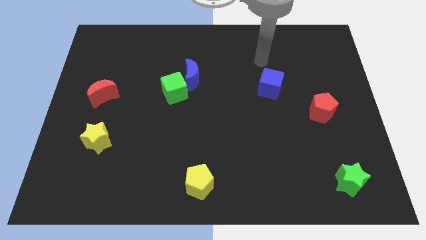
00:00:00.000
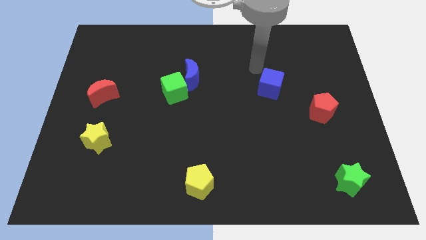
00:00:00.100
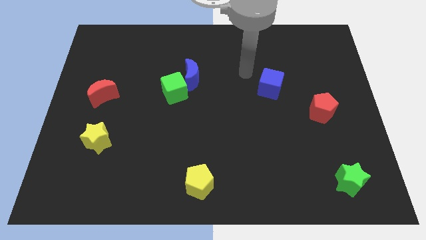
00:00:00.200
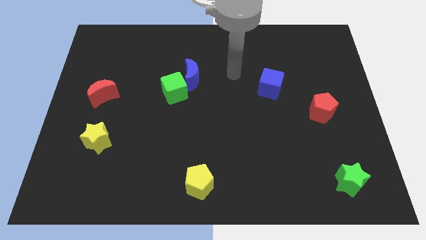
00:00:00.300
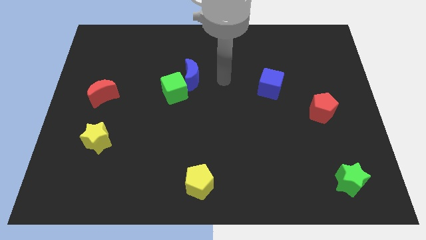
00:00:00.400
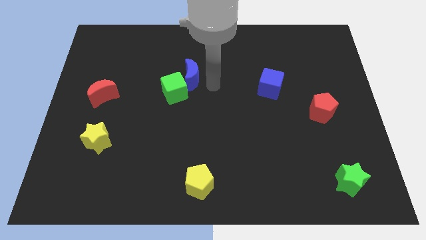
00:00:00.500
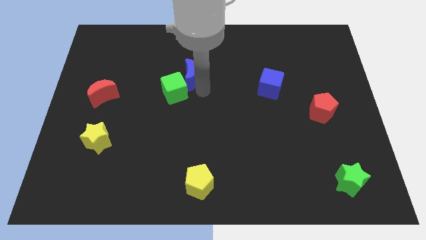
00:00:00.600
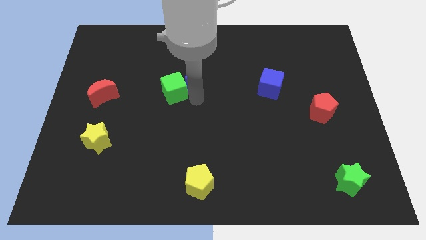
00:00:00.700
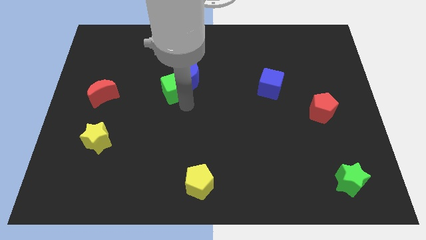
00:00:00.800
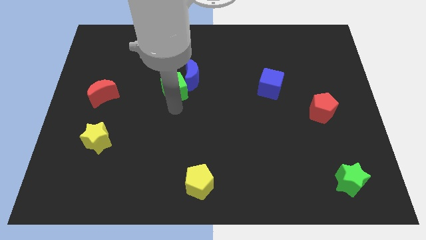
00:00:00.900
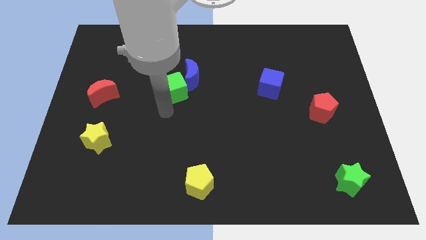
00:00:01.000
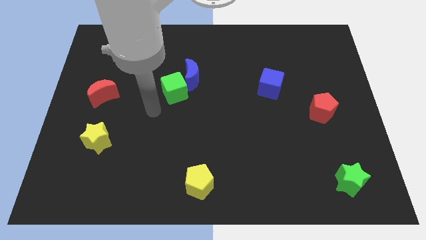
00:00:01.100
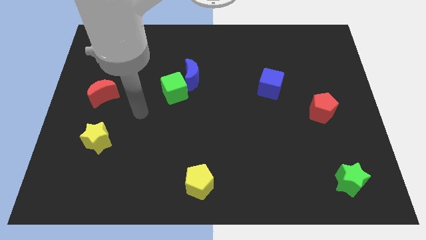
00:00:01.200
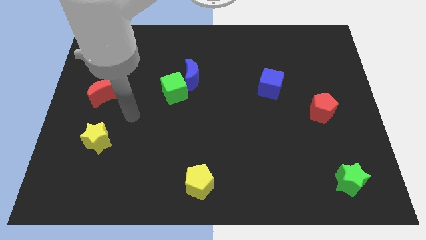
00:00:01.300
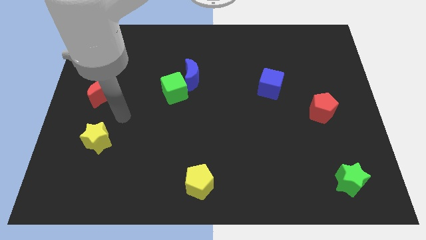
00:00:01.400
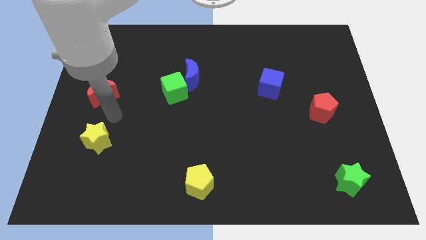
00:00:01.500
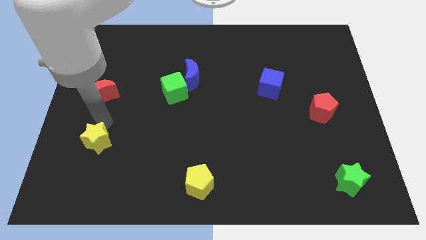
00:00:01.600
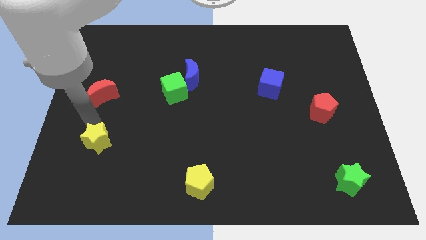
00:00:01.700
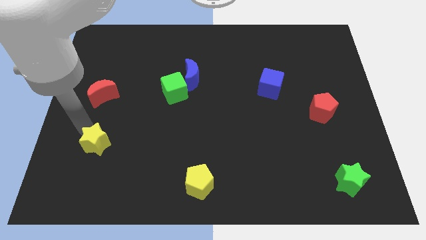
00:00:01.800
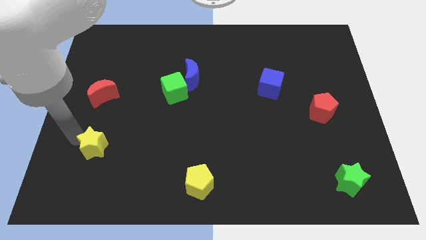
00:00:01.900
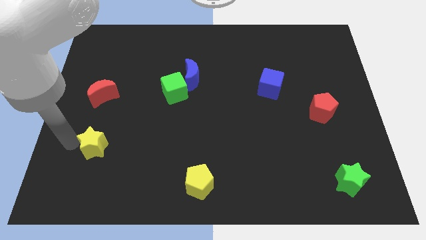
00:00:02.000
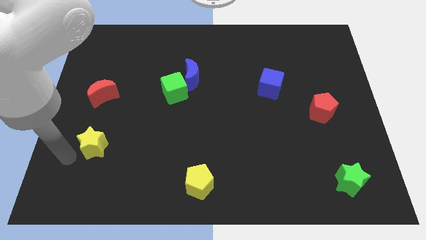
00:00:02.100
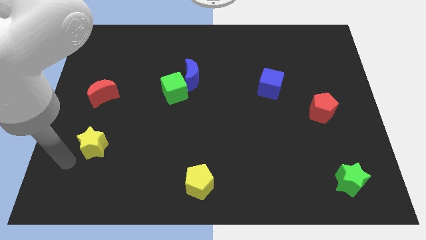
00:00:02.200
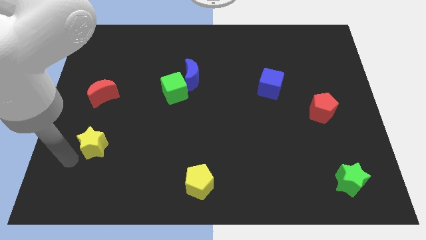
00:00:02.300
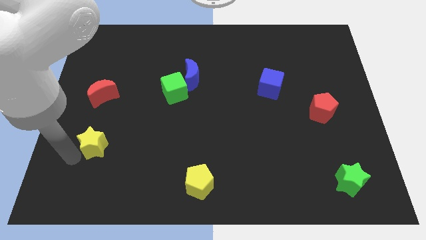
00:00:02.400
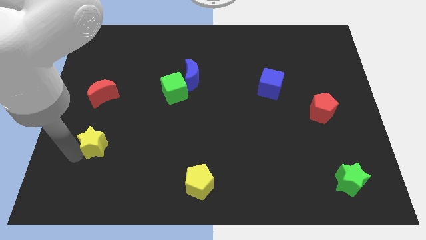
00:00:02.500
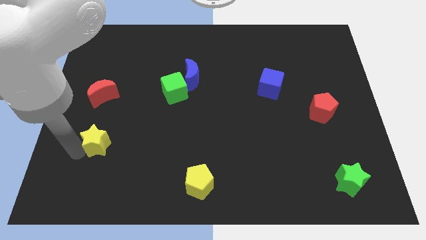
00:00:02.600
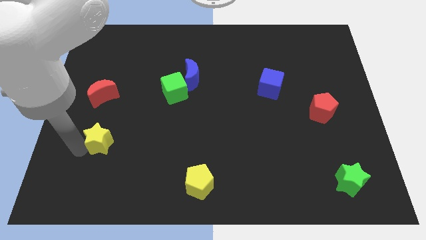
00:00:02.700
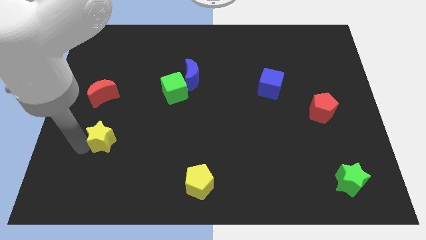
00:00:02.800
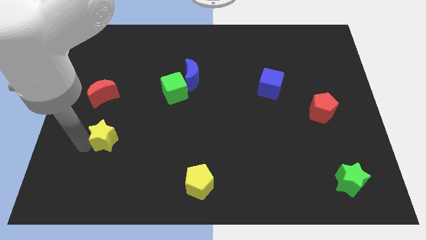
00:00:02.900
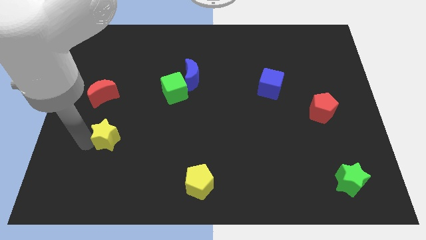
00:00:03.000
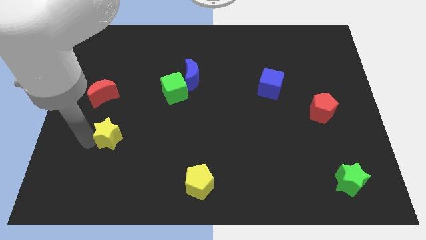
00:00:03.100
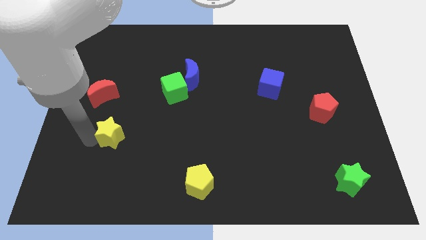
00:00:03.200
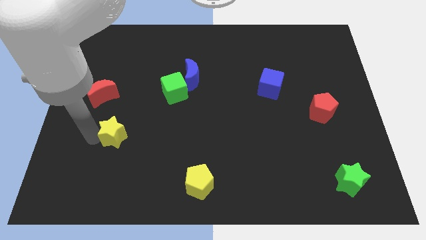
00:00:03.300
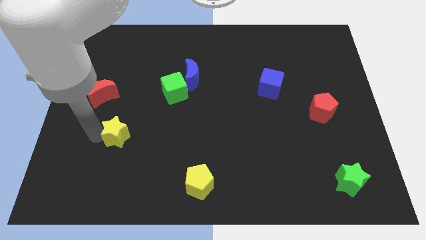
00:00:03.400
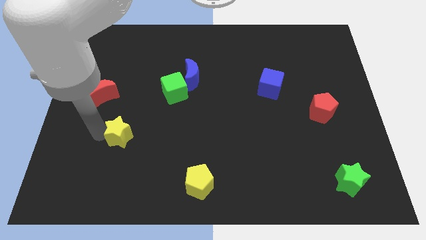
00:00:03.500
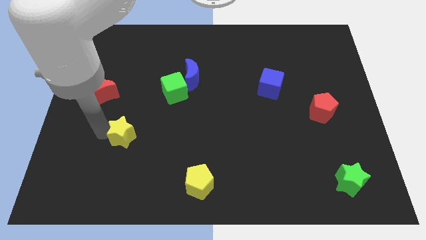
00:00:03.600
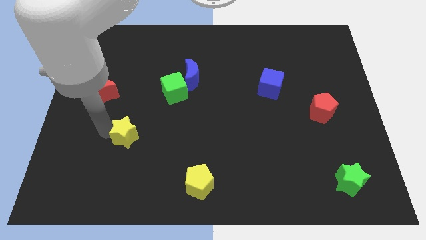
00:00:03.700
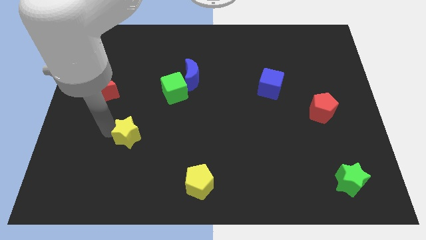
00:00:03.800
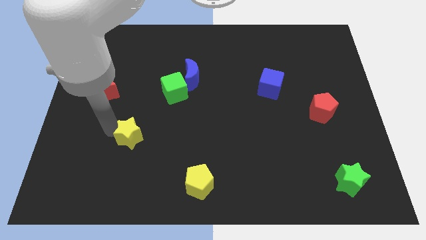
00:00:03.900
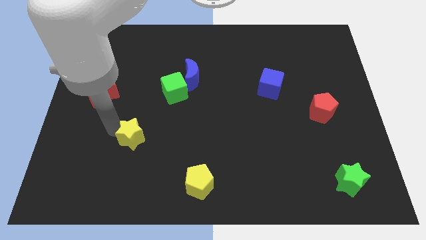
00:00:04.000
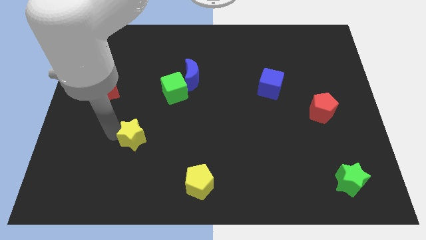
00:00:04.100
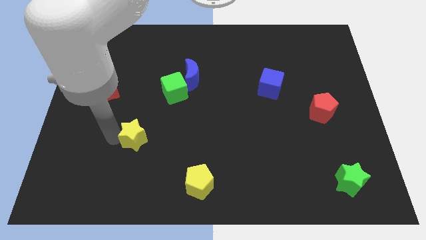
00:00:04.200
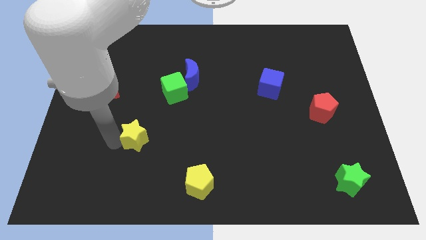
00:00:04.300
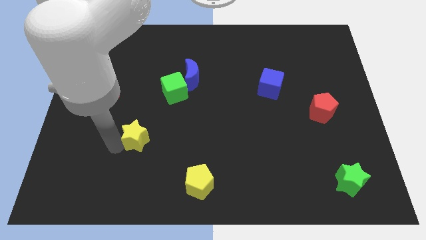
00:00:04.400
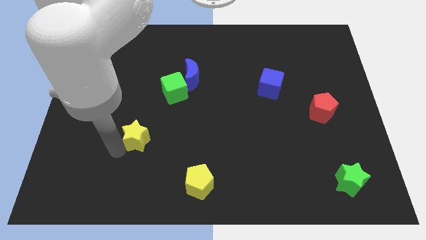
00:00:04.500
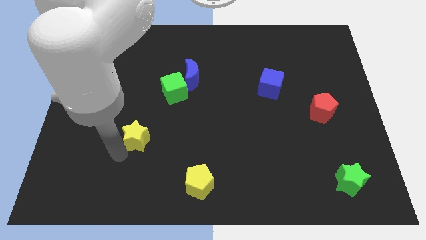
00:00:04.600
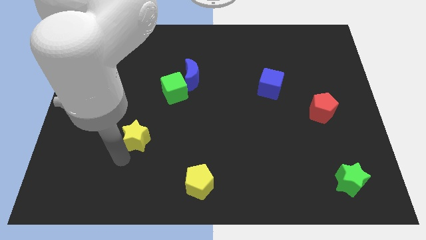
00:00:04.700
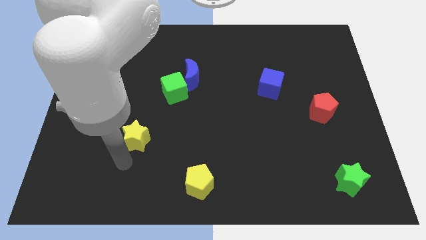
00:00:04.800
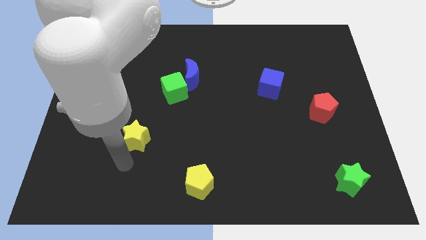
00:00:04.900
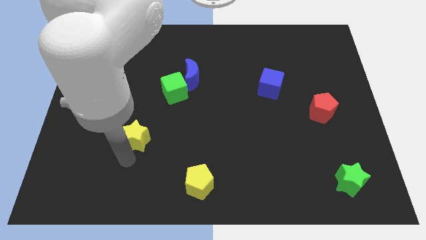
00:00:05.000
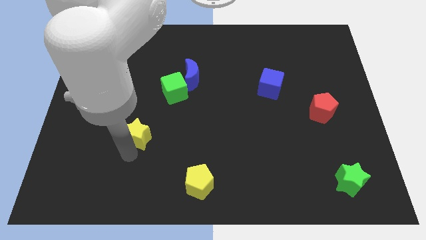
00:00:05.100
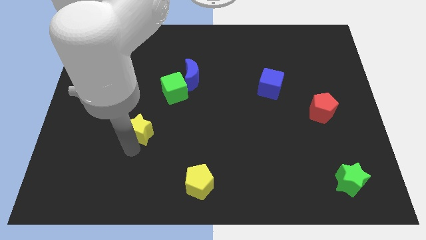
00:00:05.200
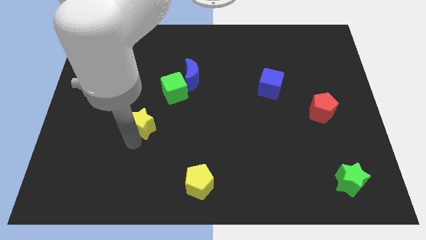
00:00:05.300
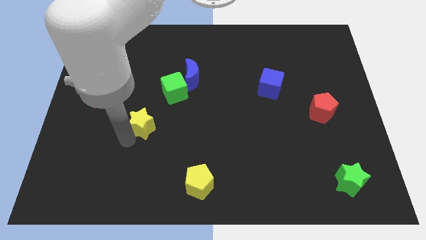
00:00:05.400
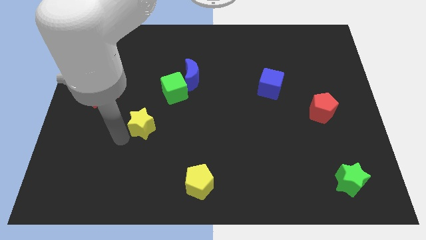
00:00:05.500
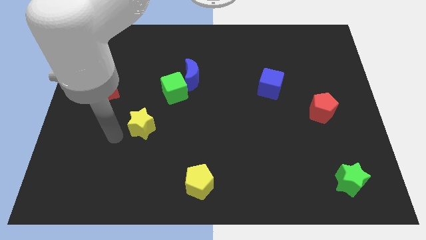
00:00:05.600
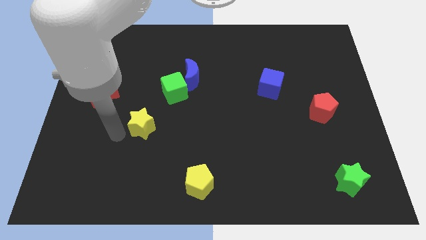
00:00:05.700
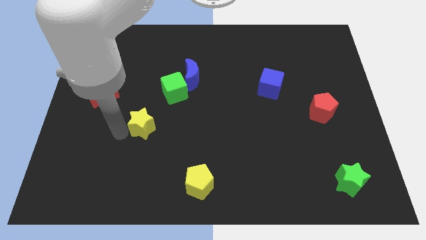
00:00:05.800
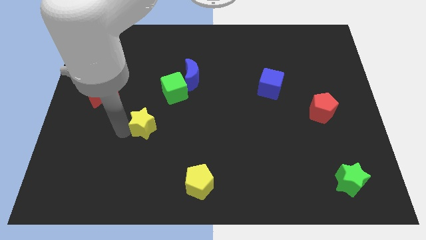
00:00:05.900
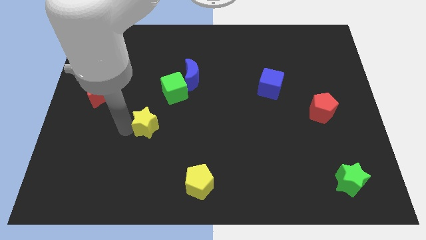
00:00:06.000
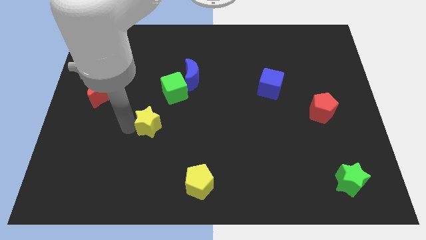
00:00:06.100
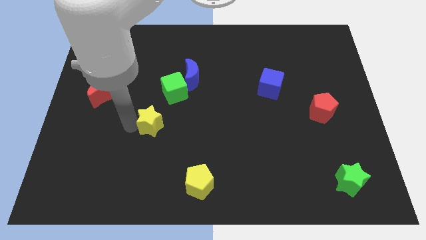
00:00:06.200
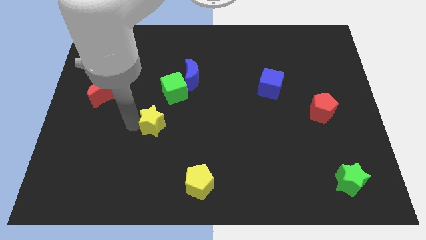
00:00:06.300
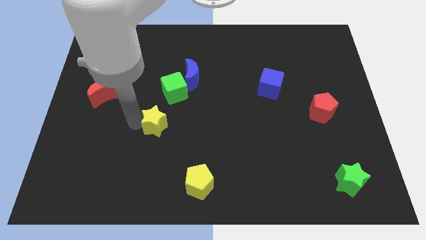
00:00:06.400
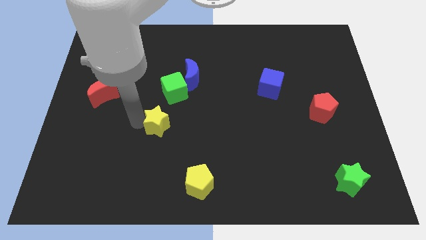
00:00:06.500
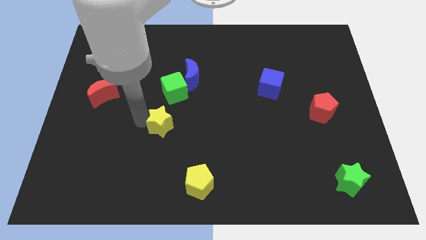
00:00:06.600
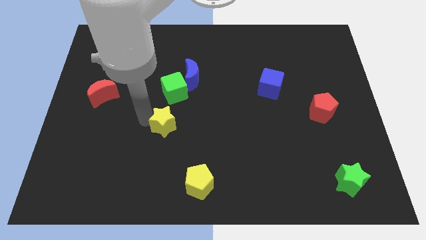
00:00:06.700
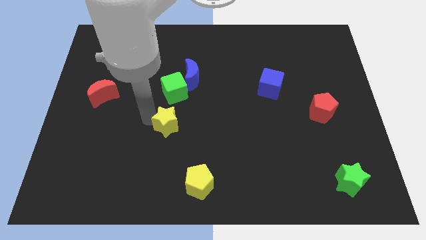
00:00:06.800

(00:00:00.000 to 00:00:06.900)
push the yellow star to the middle of the board
